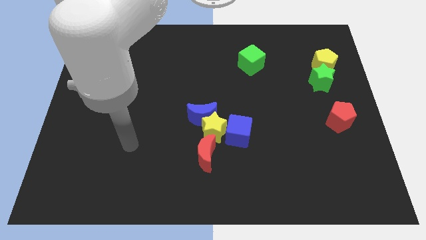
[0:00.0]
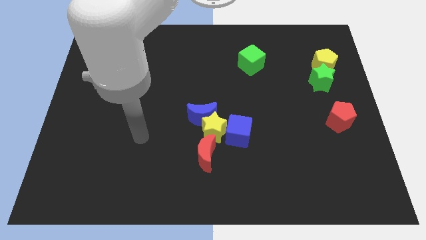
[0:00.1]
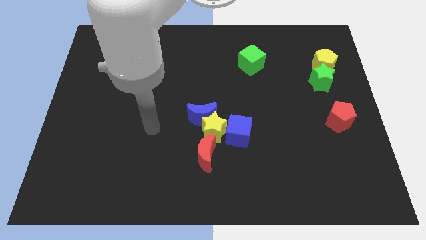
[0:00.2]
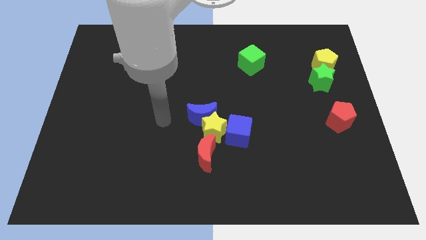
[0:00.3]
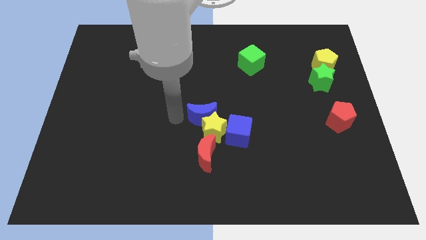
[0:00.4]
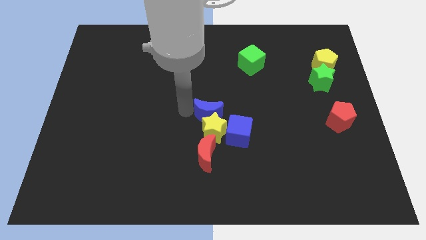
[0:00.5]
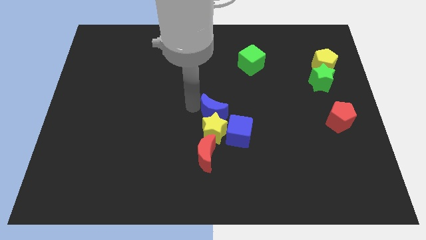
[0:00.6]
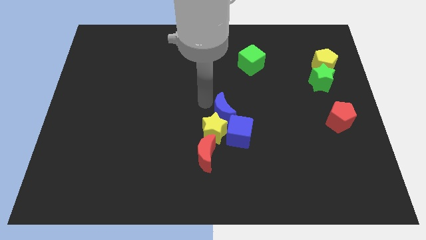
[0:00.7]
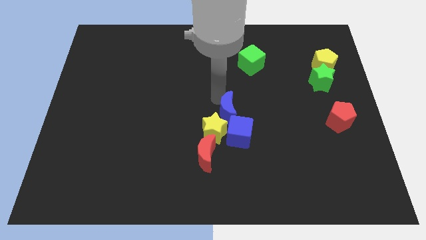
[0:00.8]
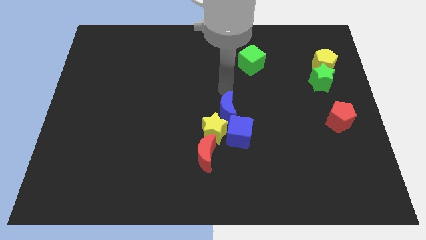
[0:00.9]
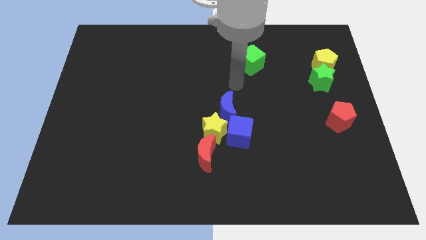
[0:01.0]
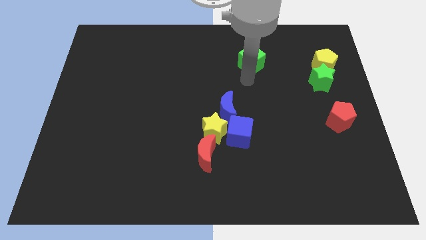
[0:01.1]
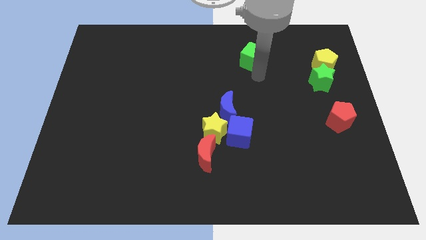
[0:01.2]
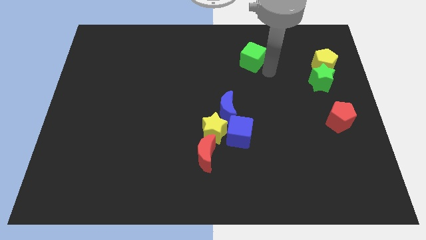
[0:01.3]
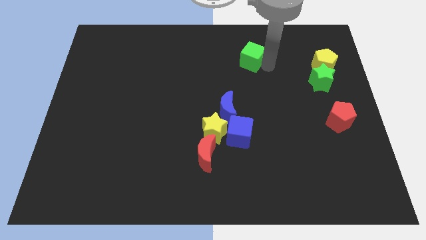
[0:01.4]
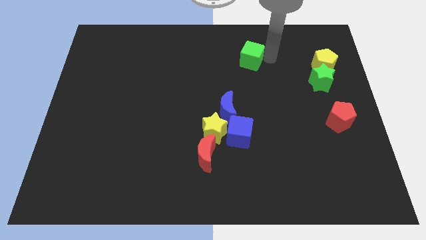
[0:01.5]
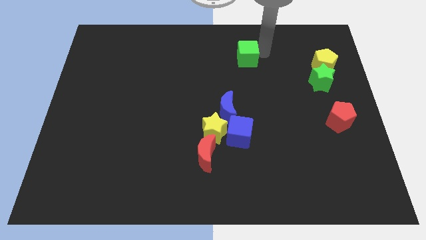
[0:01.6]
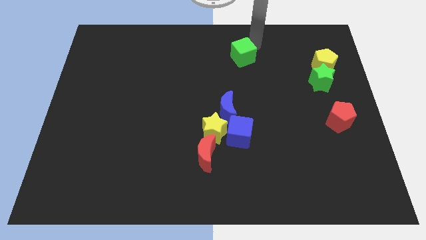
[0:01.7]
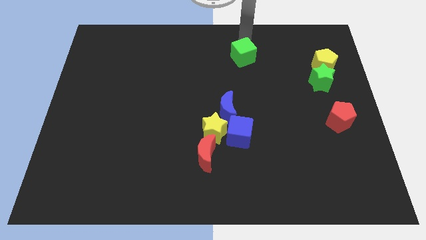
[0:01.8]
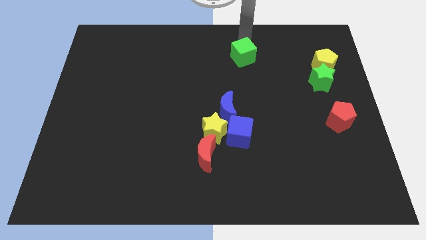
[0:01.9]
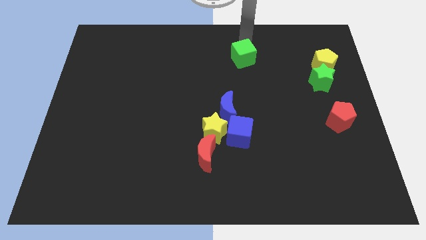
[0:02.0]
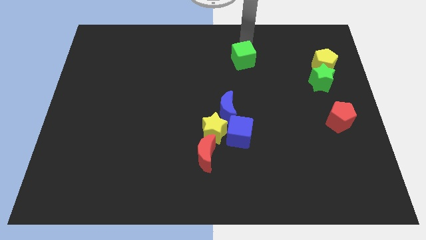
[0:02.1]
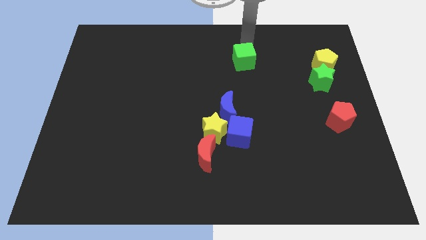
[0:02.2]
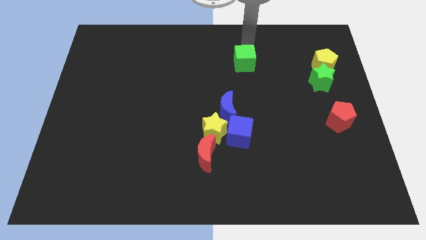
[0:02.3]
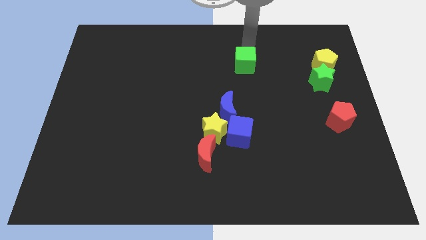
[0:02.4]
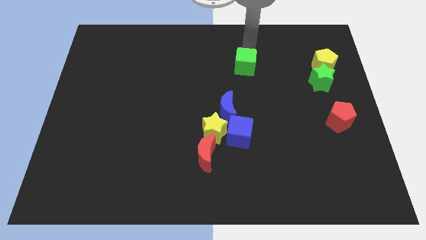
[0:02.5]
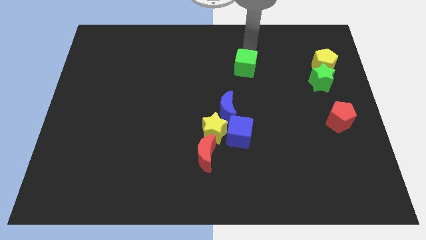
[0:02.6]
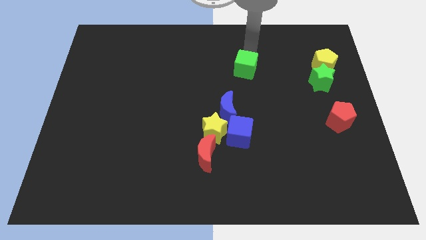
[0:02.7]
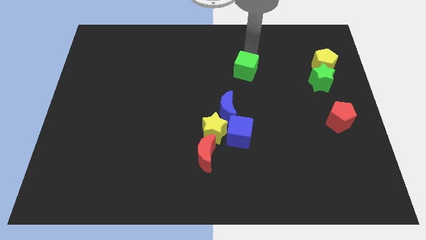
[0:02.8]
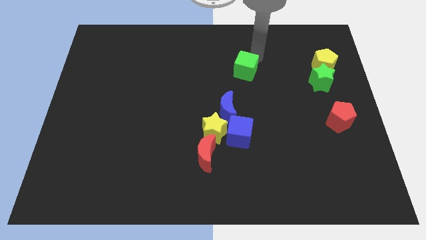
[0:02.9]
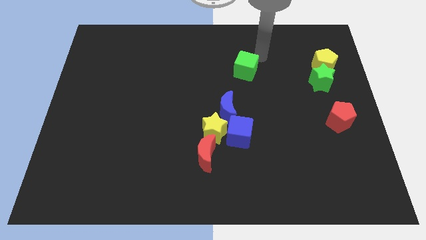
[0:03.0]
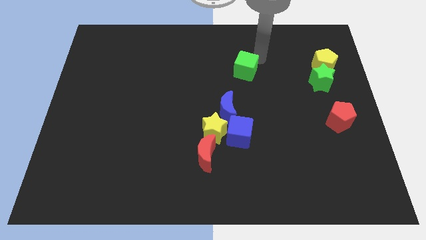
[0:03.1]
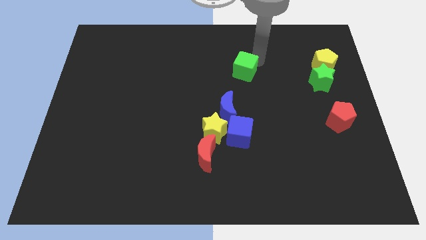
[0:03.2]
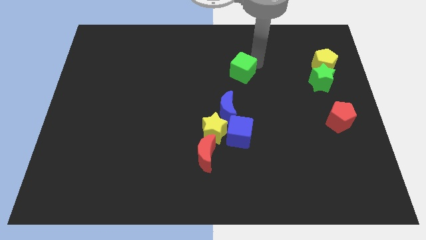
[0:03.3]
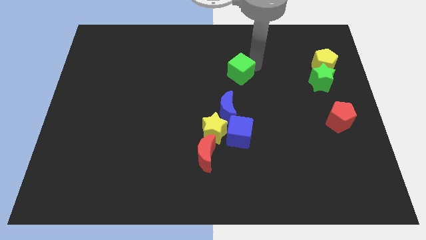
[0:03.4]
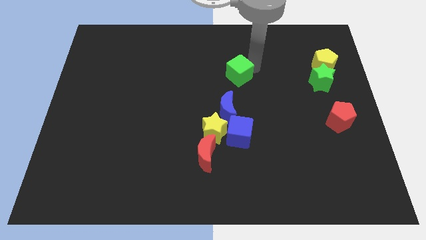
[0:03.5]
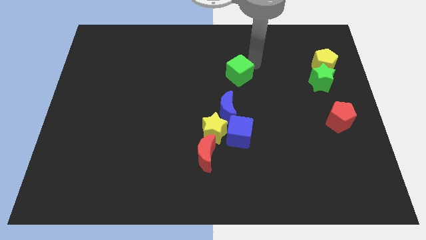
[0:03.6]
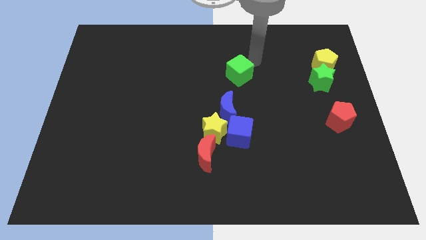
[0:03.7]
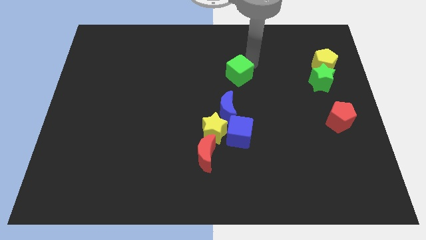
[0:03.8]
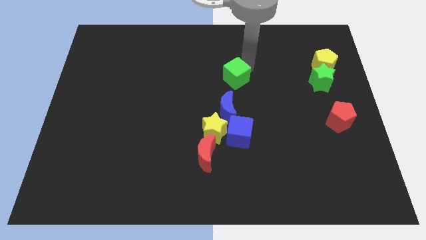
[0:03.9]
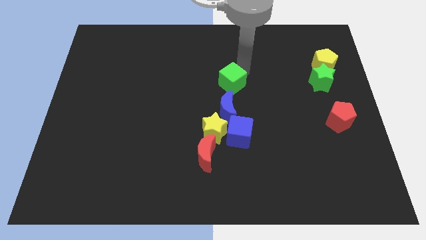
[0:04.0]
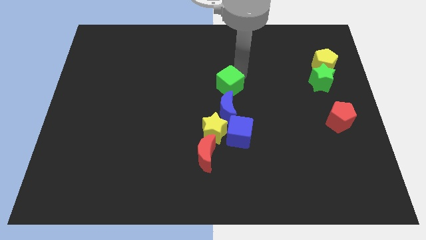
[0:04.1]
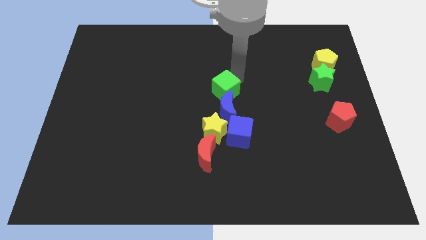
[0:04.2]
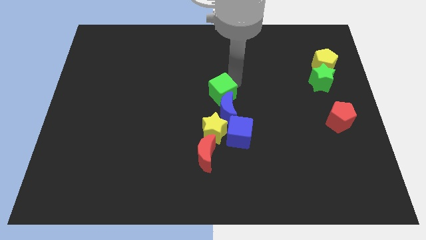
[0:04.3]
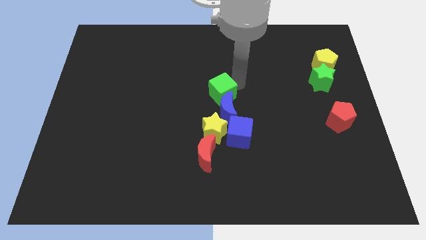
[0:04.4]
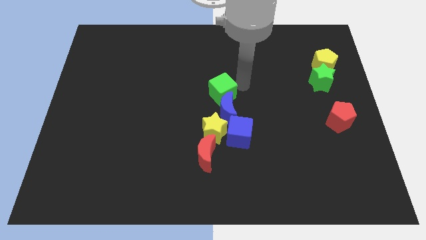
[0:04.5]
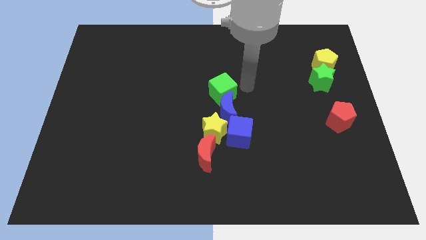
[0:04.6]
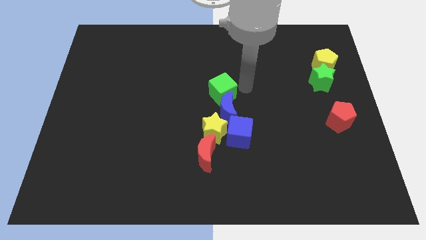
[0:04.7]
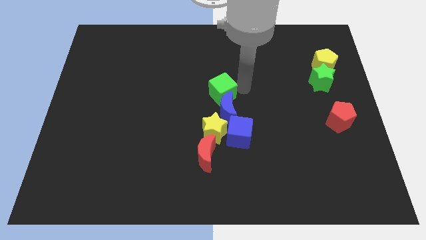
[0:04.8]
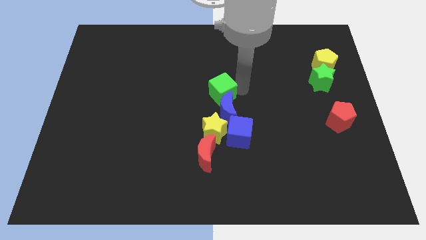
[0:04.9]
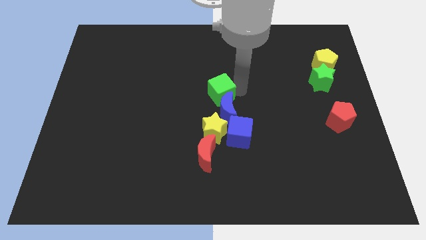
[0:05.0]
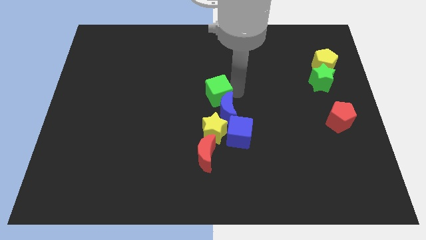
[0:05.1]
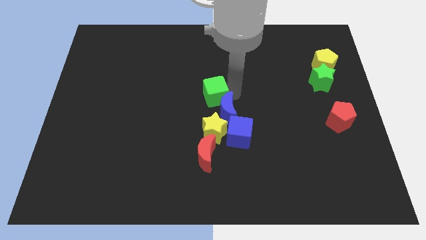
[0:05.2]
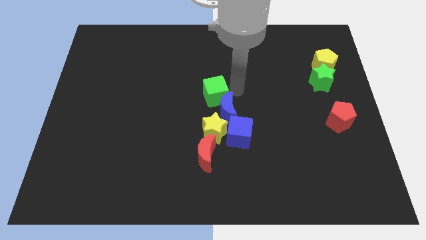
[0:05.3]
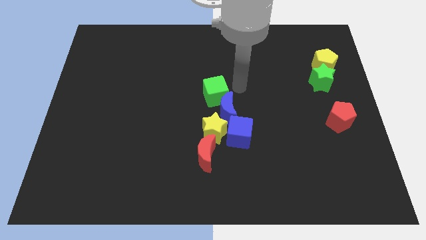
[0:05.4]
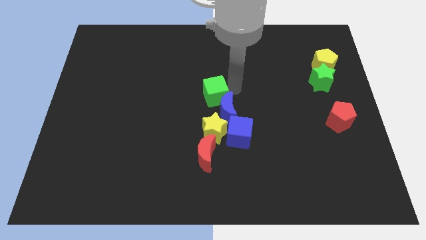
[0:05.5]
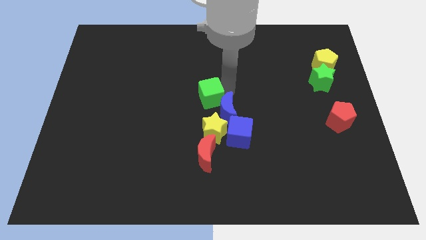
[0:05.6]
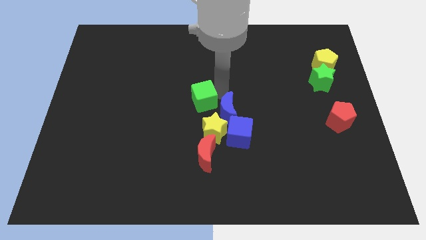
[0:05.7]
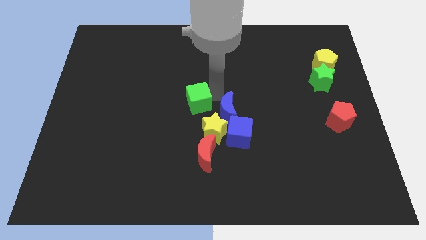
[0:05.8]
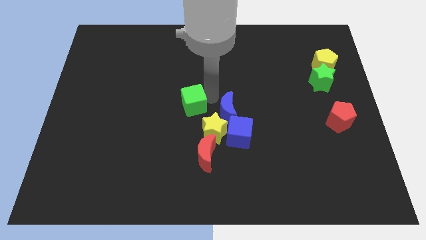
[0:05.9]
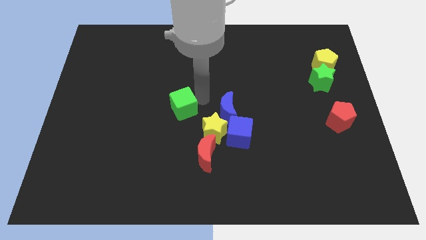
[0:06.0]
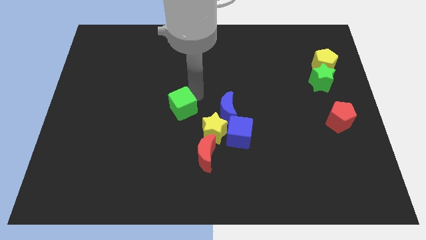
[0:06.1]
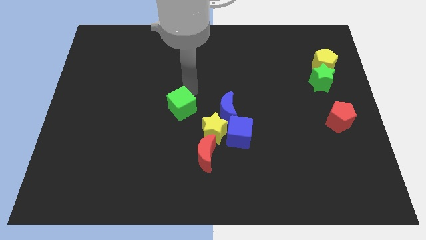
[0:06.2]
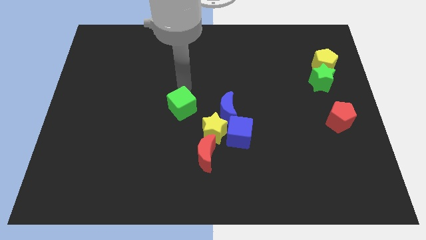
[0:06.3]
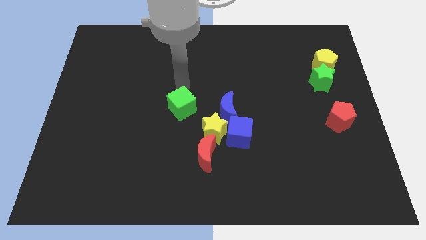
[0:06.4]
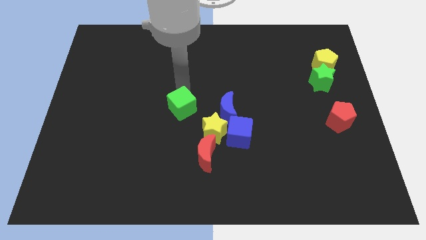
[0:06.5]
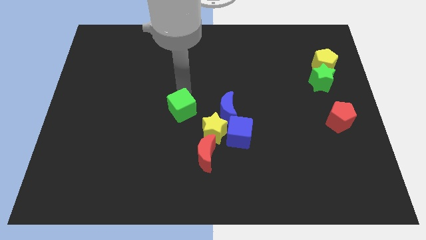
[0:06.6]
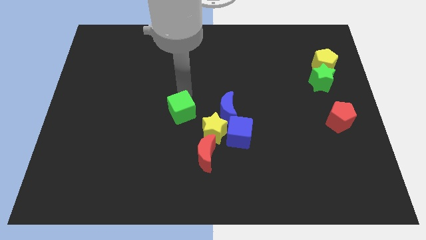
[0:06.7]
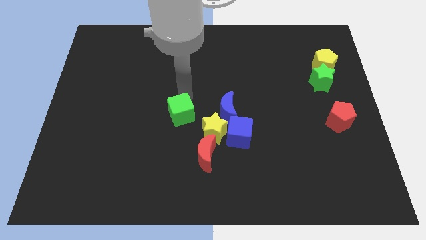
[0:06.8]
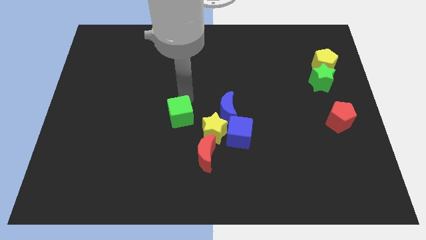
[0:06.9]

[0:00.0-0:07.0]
put the green cube to the top left of the red moon
